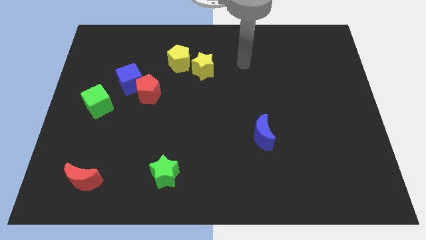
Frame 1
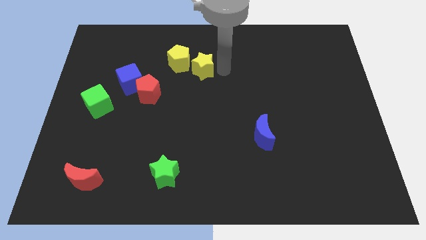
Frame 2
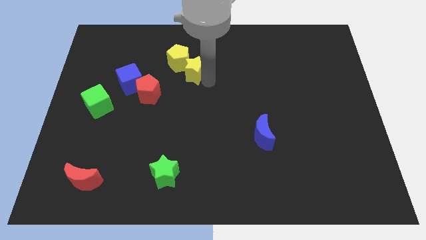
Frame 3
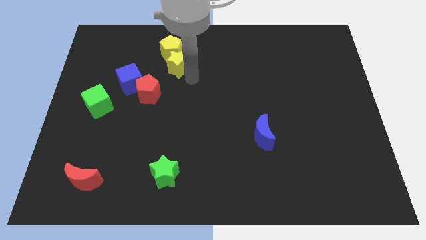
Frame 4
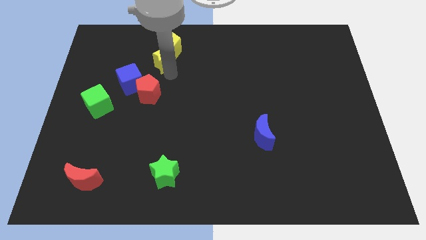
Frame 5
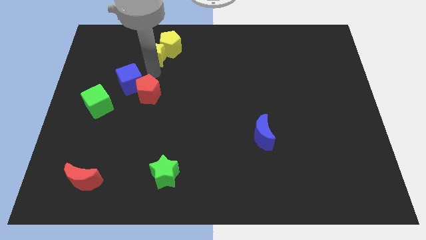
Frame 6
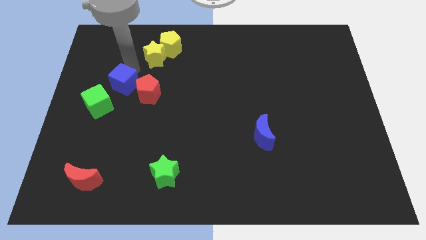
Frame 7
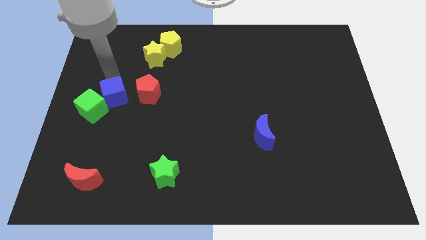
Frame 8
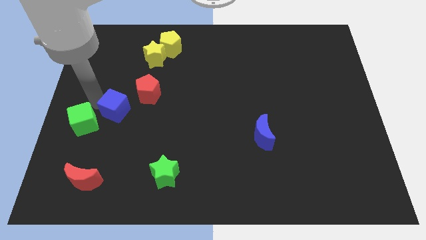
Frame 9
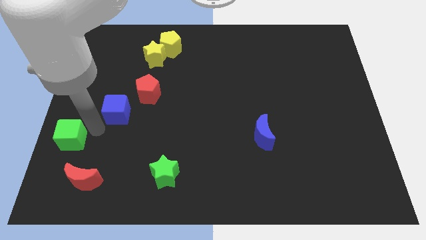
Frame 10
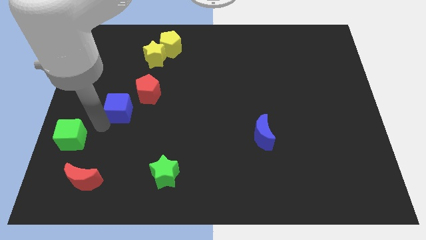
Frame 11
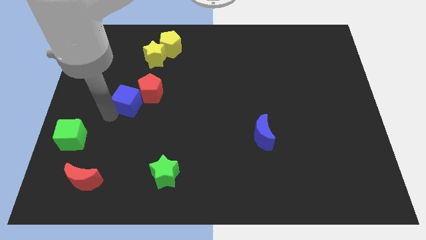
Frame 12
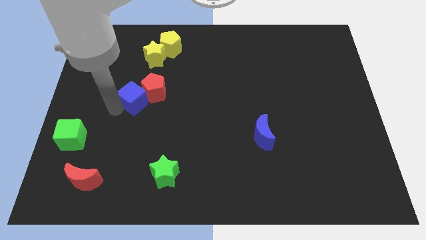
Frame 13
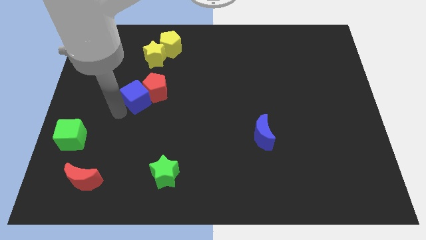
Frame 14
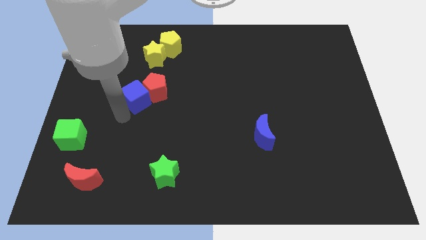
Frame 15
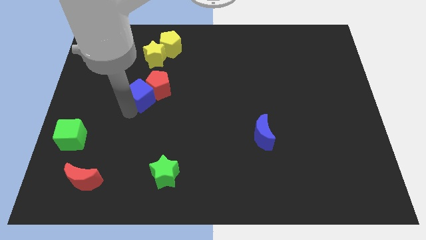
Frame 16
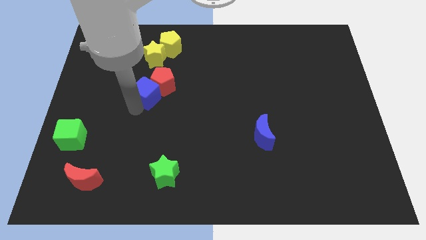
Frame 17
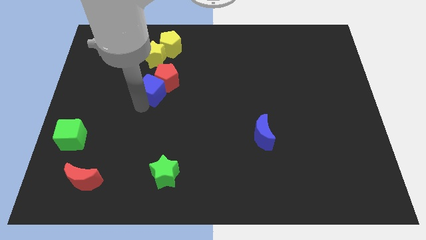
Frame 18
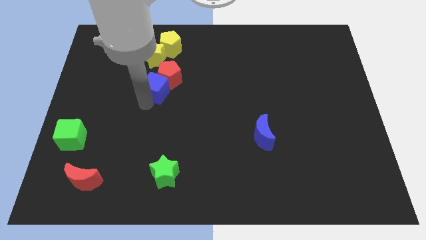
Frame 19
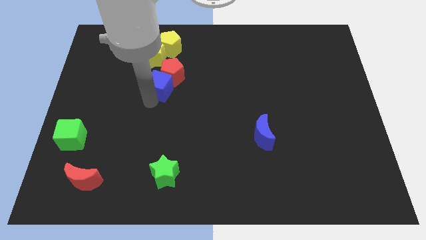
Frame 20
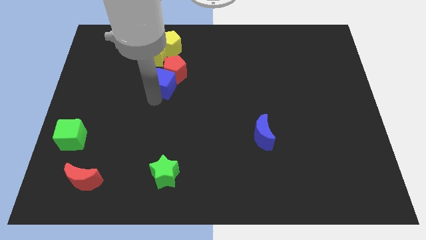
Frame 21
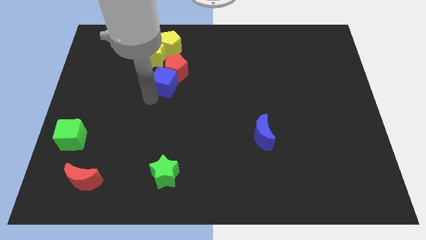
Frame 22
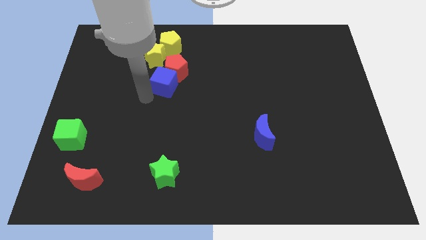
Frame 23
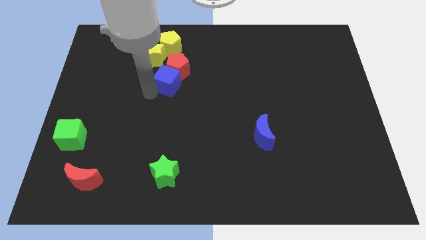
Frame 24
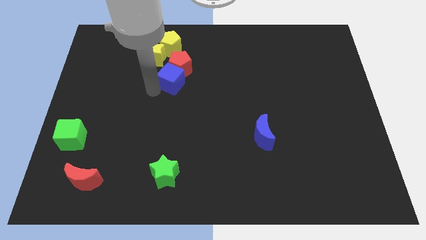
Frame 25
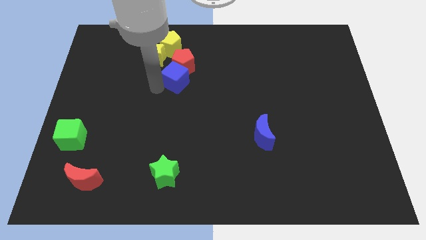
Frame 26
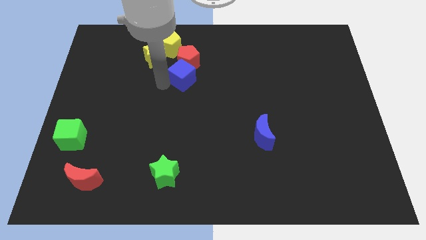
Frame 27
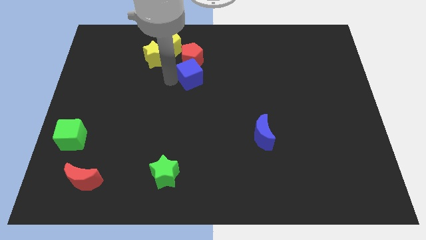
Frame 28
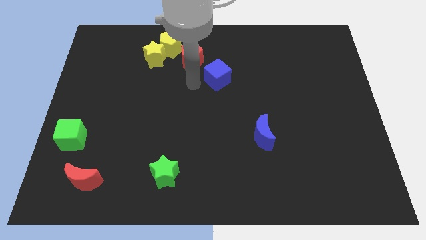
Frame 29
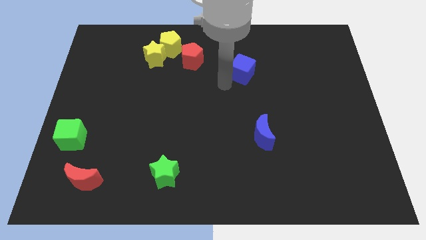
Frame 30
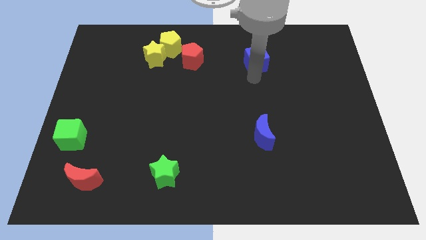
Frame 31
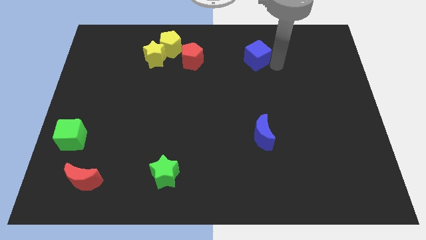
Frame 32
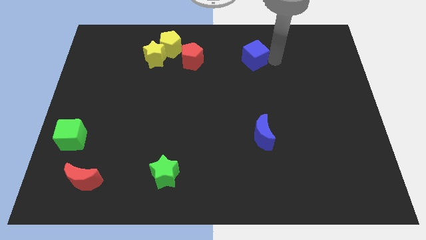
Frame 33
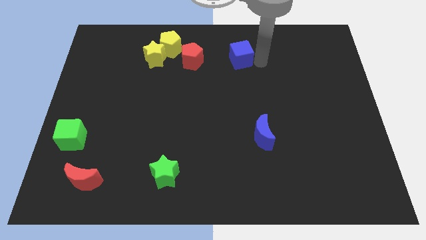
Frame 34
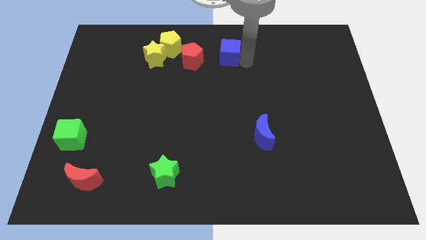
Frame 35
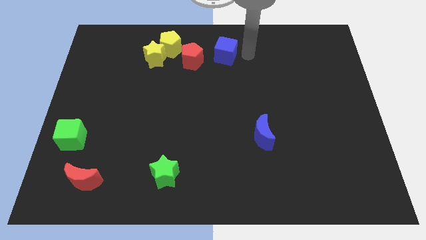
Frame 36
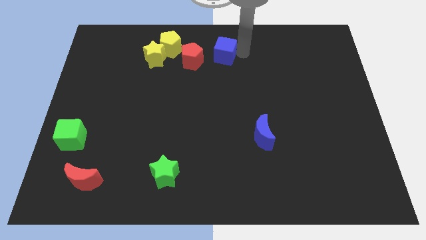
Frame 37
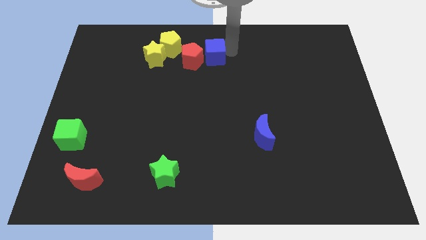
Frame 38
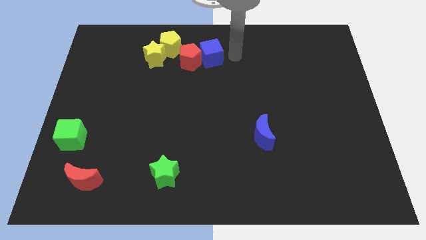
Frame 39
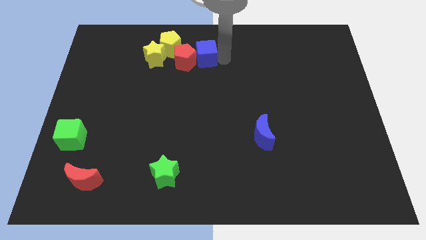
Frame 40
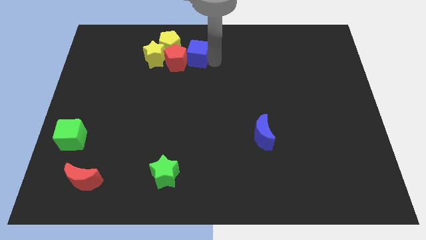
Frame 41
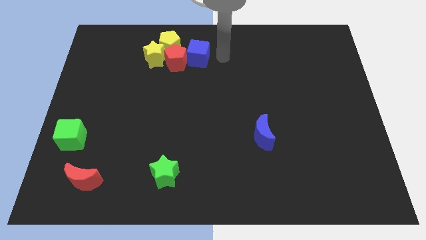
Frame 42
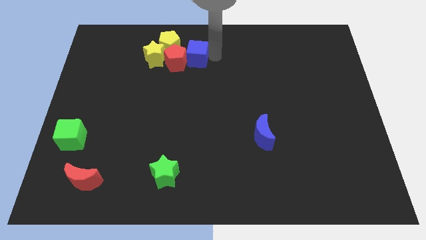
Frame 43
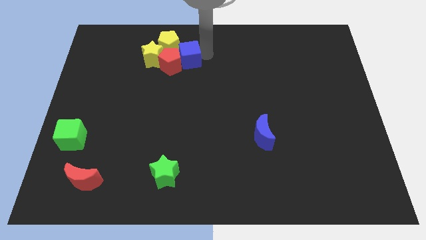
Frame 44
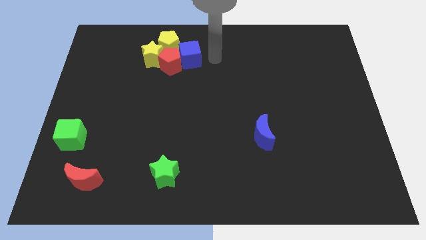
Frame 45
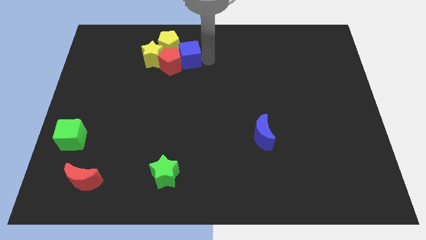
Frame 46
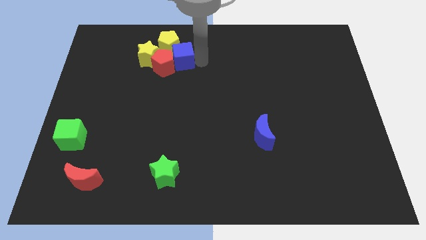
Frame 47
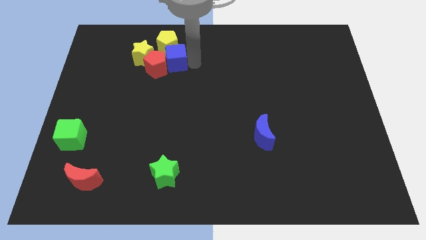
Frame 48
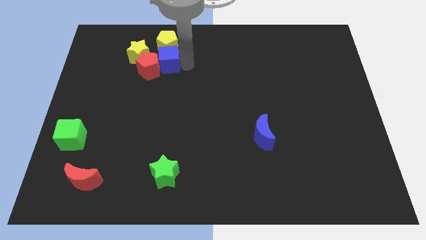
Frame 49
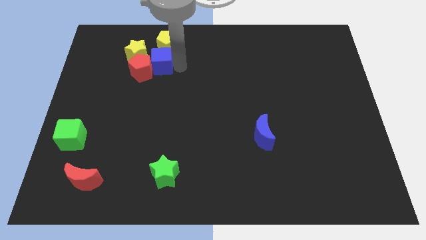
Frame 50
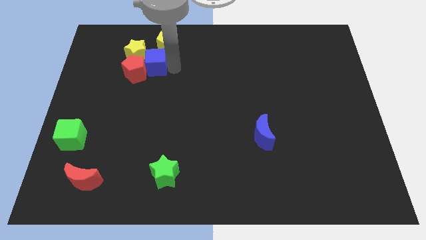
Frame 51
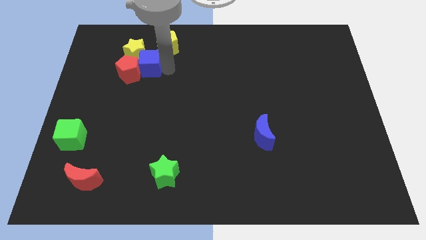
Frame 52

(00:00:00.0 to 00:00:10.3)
move the blue cube next to the yellow star

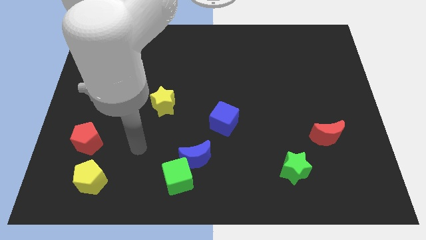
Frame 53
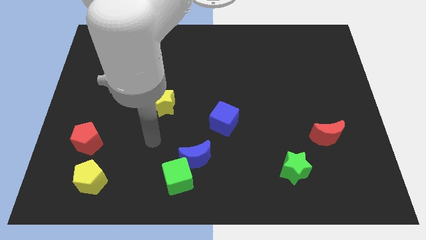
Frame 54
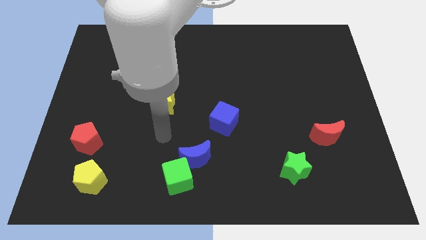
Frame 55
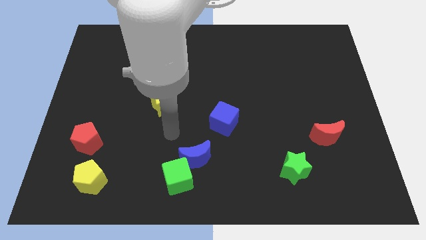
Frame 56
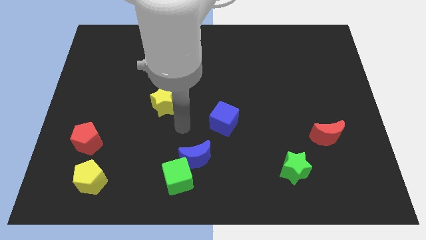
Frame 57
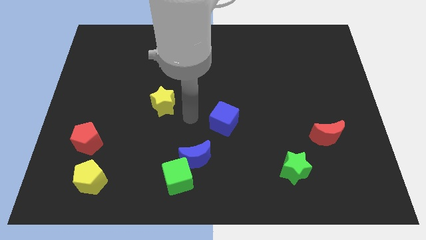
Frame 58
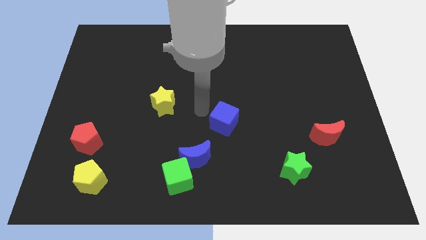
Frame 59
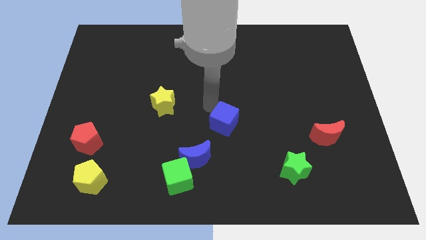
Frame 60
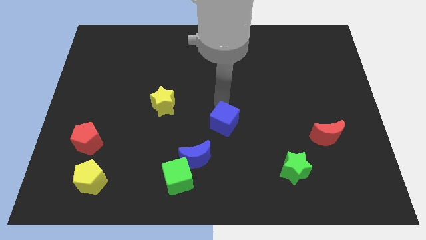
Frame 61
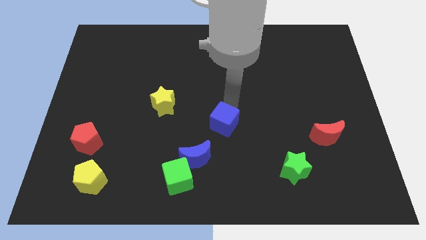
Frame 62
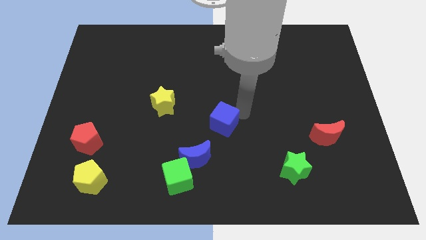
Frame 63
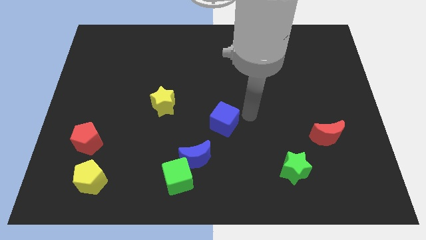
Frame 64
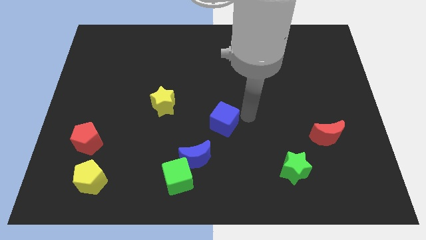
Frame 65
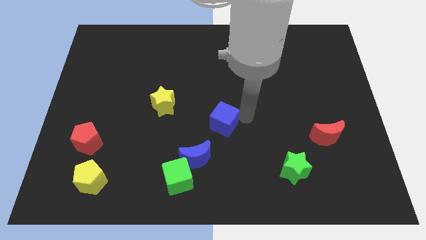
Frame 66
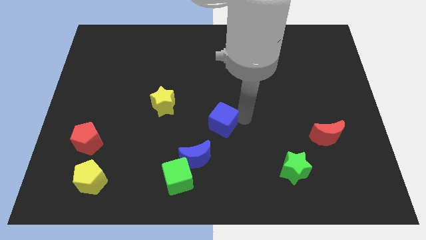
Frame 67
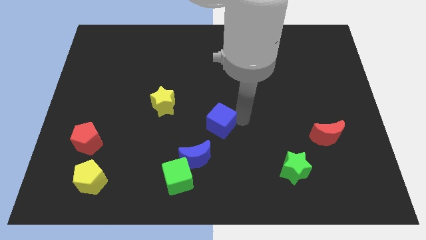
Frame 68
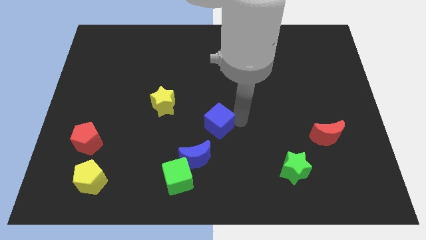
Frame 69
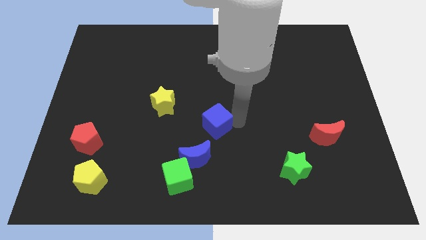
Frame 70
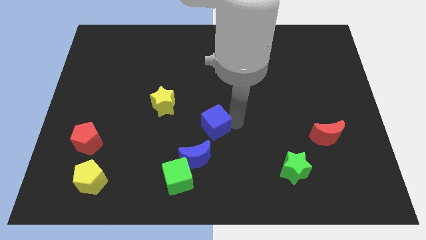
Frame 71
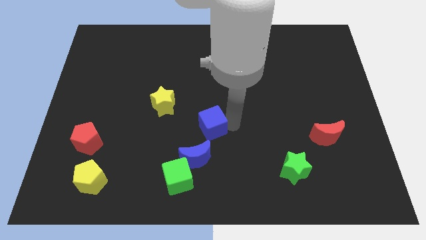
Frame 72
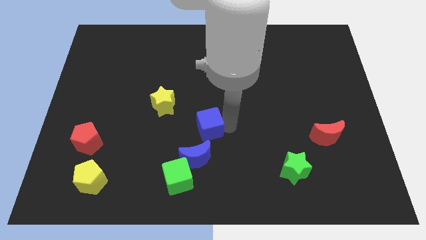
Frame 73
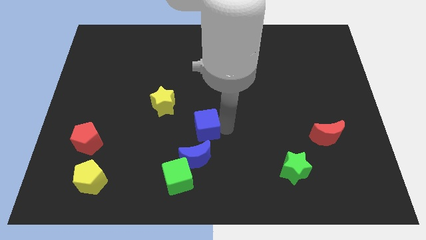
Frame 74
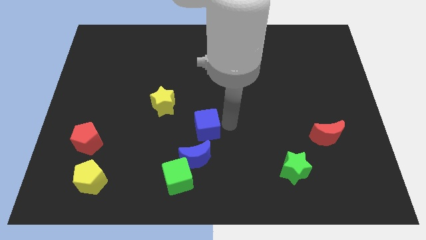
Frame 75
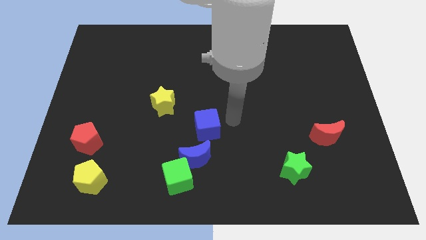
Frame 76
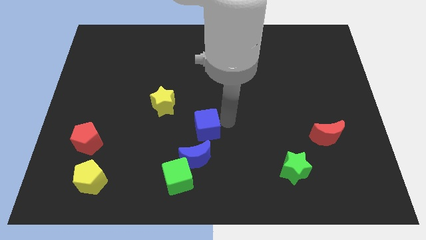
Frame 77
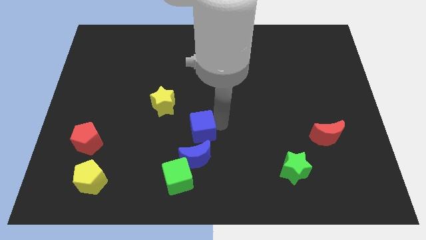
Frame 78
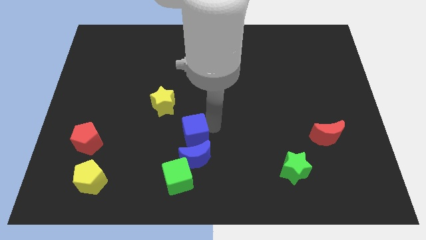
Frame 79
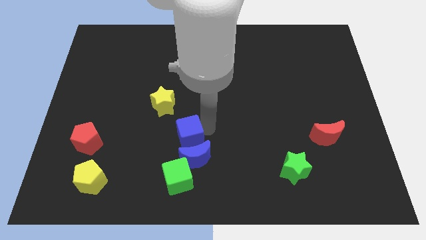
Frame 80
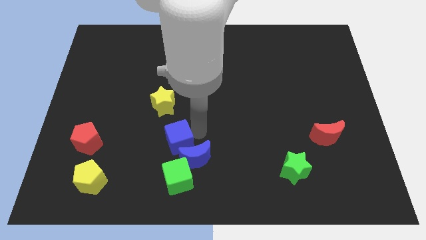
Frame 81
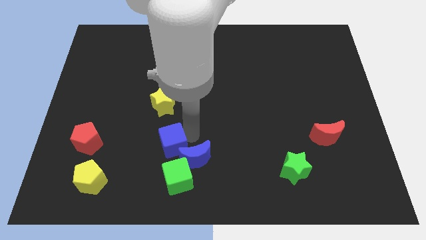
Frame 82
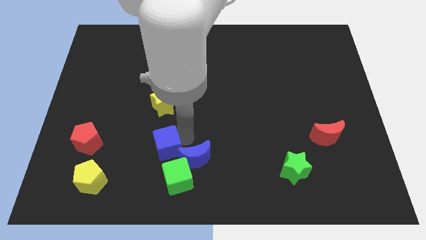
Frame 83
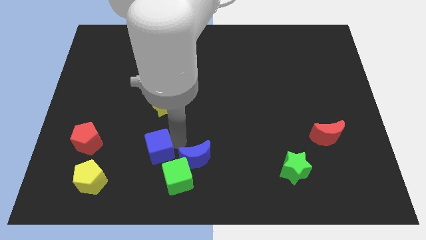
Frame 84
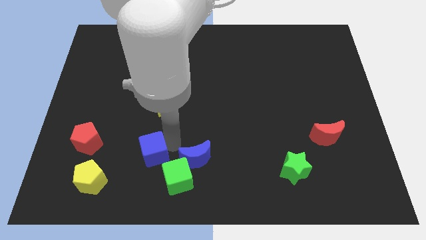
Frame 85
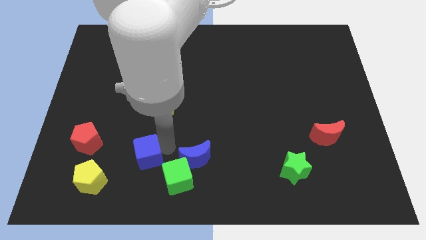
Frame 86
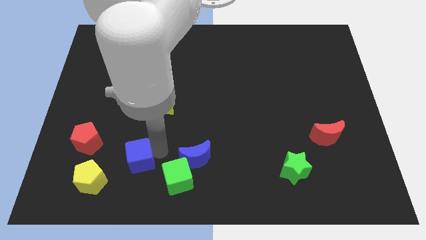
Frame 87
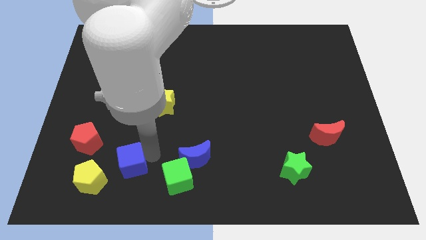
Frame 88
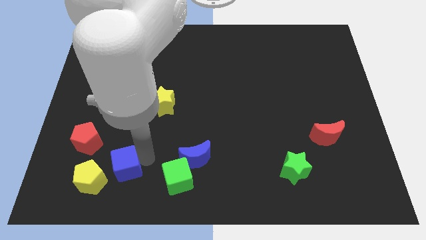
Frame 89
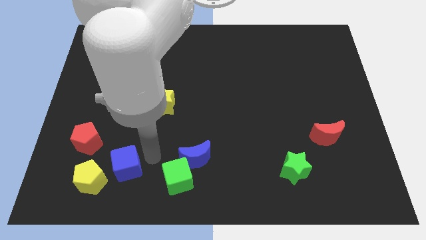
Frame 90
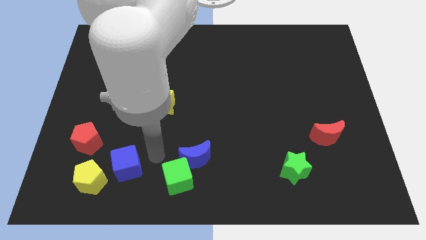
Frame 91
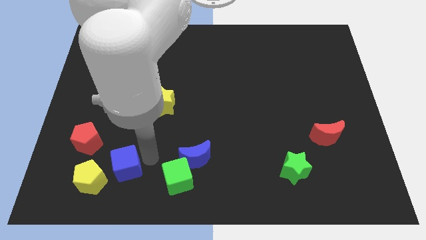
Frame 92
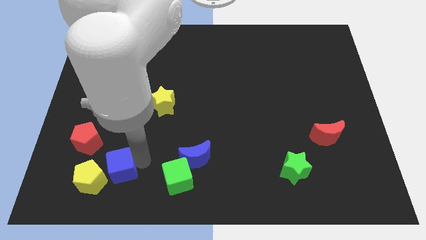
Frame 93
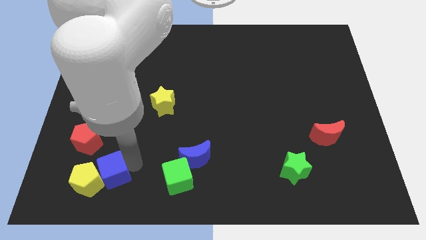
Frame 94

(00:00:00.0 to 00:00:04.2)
push the blue cube next to the yellow pentagon
